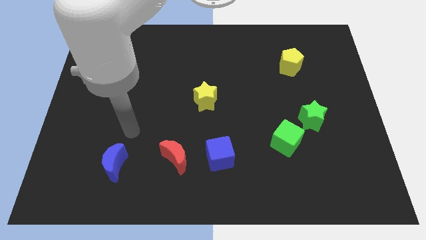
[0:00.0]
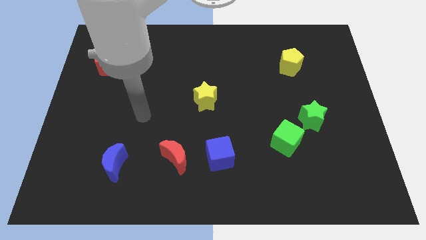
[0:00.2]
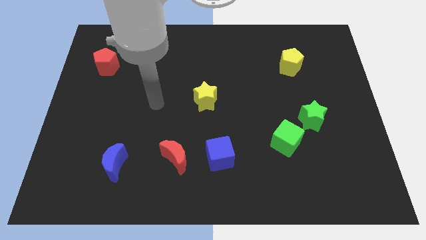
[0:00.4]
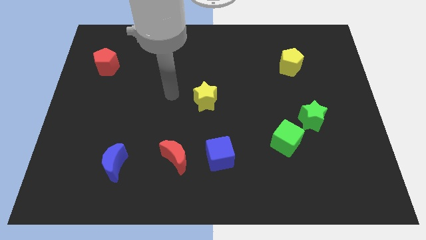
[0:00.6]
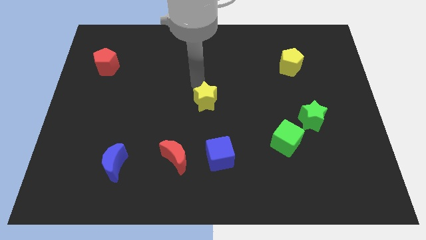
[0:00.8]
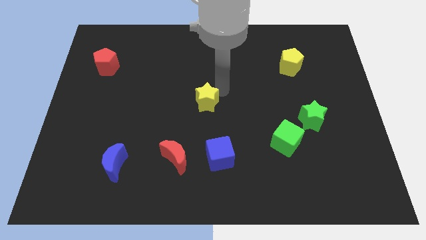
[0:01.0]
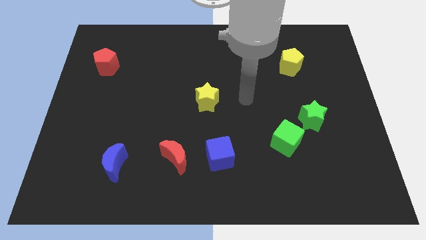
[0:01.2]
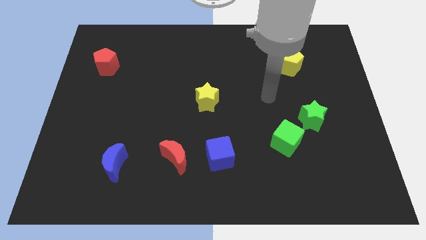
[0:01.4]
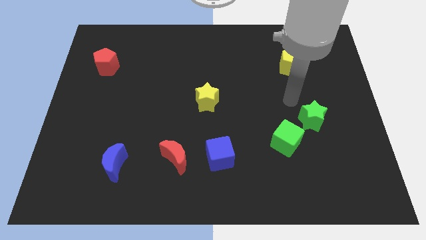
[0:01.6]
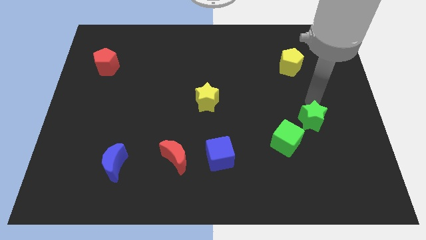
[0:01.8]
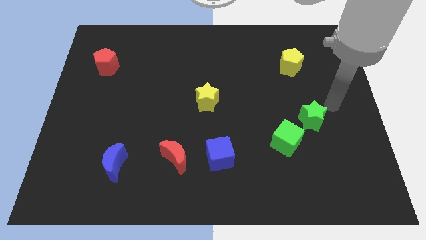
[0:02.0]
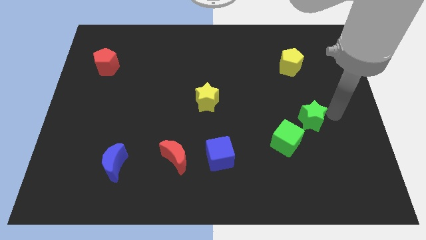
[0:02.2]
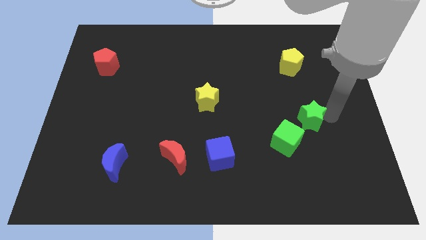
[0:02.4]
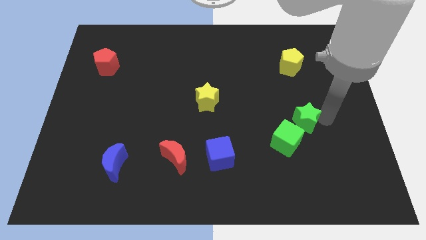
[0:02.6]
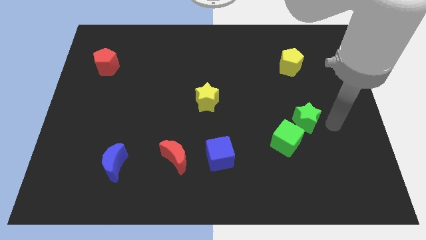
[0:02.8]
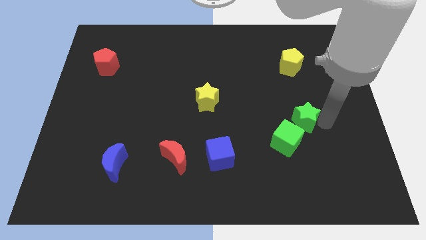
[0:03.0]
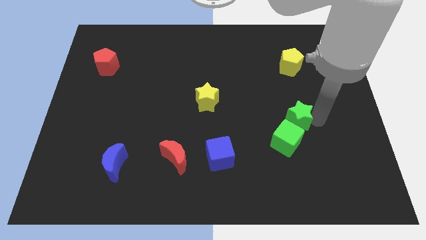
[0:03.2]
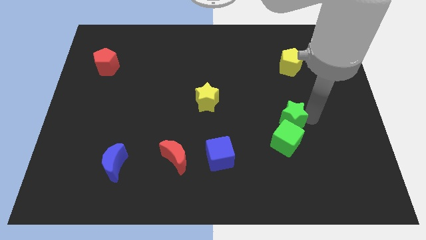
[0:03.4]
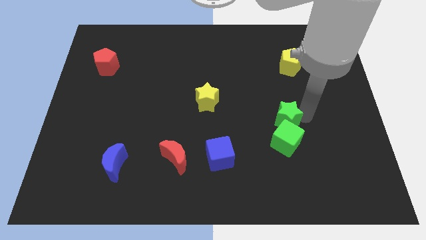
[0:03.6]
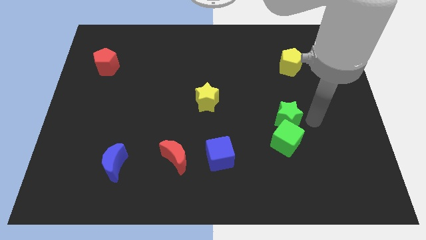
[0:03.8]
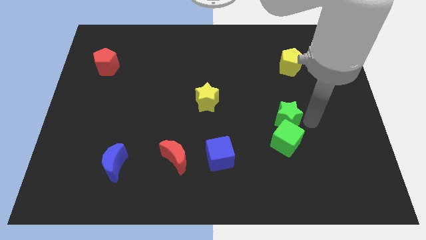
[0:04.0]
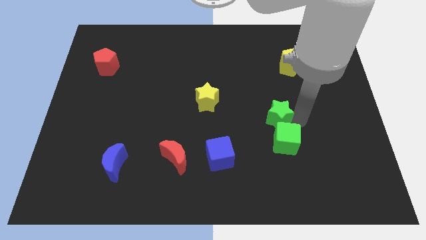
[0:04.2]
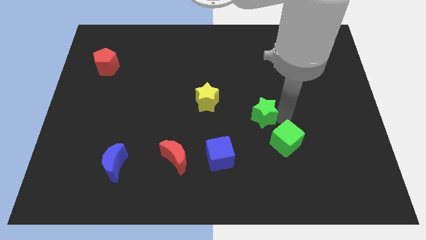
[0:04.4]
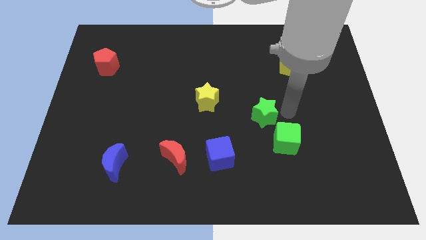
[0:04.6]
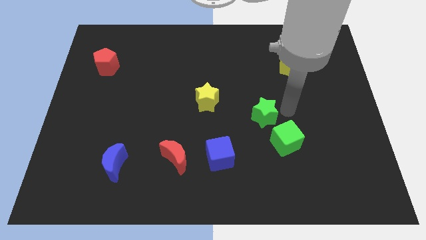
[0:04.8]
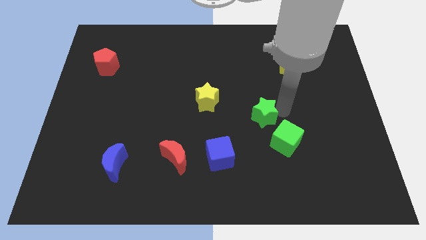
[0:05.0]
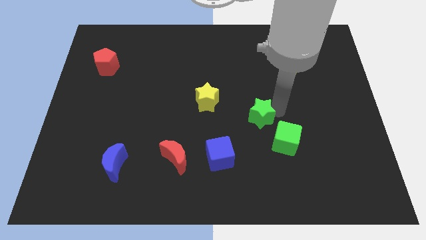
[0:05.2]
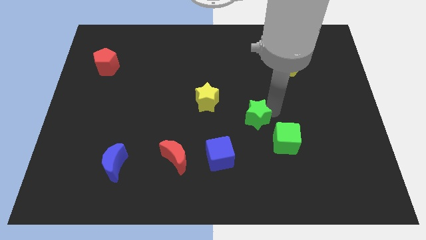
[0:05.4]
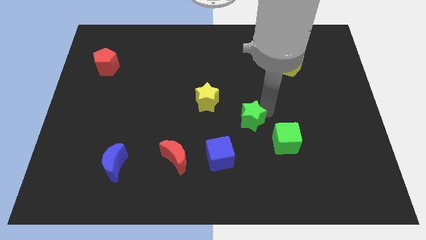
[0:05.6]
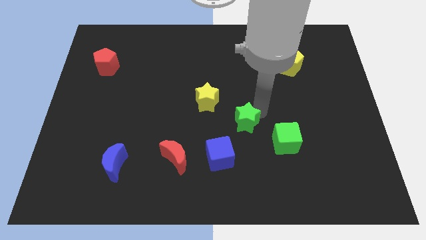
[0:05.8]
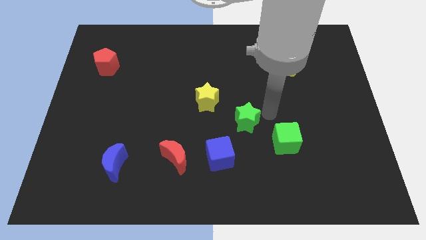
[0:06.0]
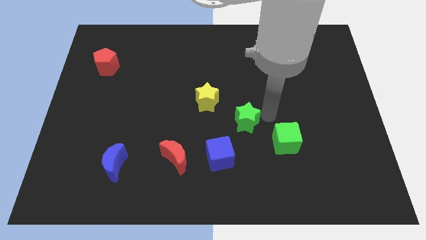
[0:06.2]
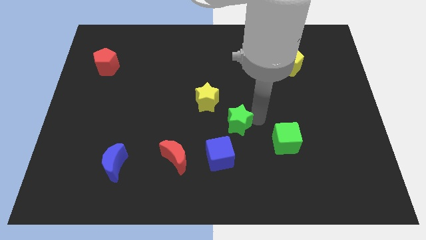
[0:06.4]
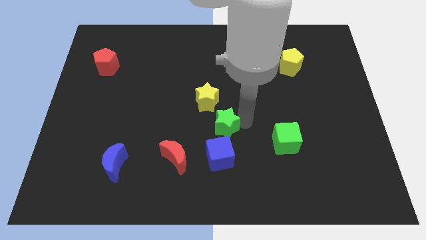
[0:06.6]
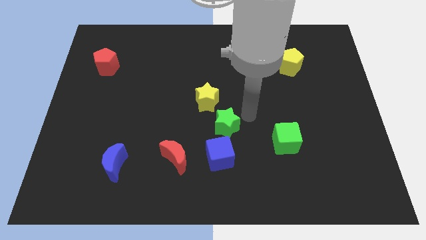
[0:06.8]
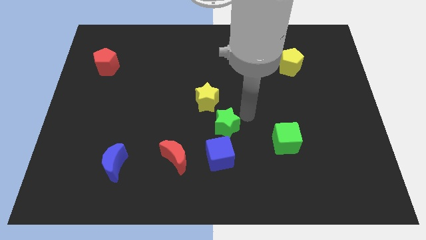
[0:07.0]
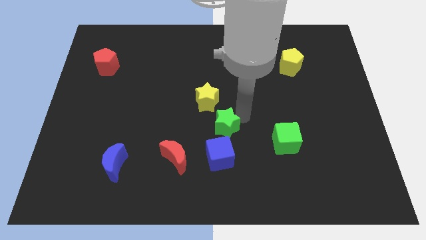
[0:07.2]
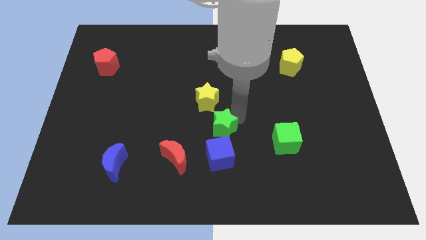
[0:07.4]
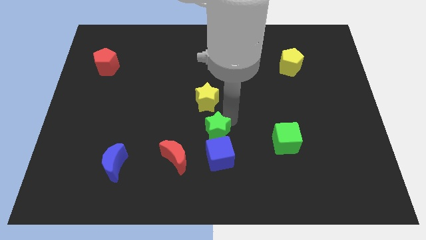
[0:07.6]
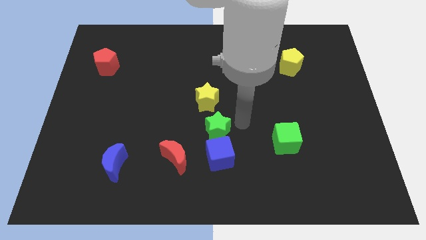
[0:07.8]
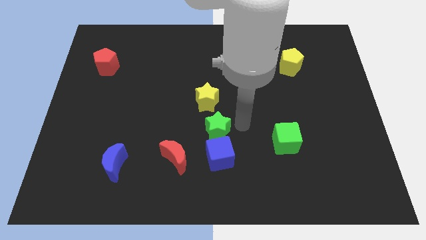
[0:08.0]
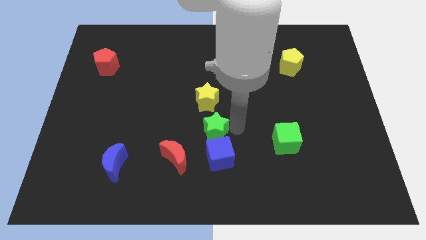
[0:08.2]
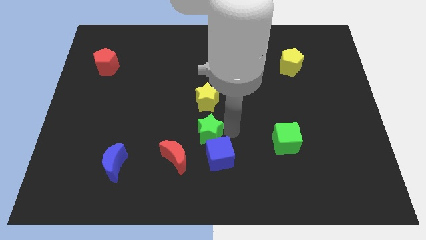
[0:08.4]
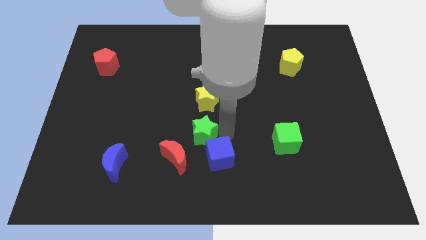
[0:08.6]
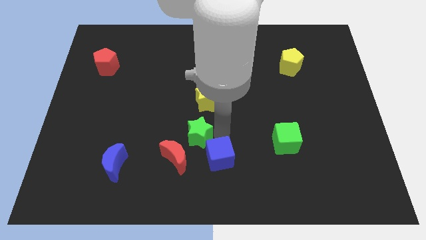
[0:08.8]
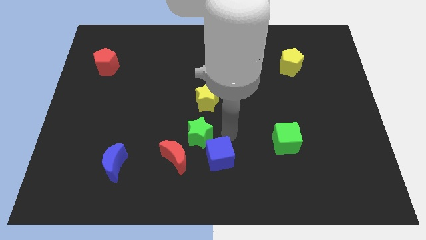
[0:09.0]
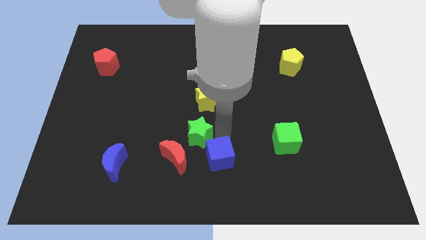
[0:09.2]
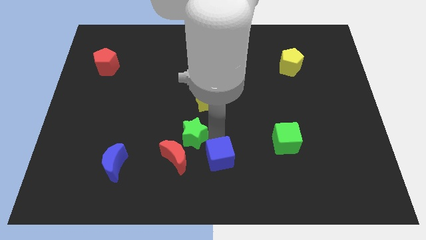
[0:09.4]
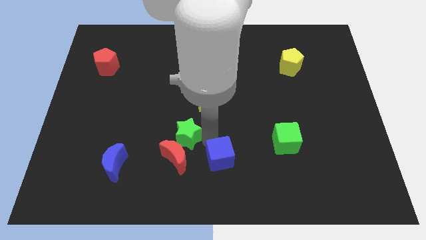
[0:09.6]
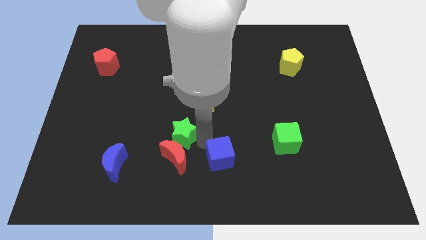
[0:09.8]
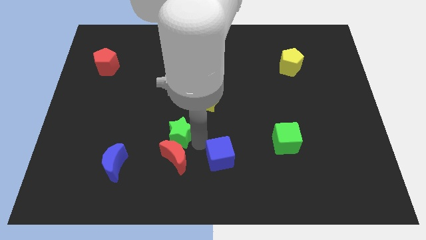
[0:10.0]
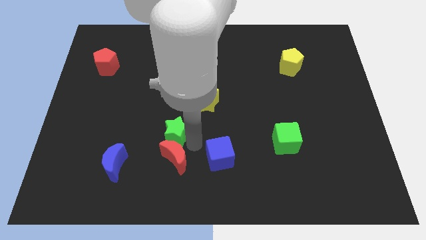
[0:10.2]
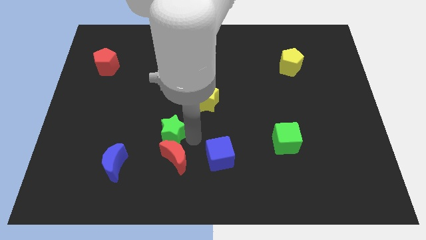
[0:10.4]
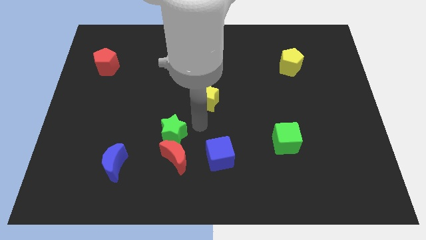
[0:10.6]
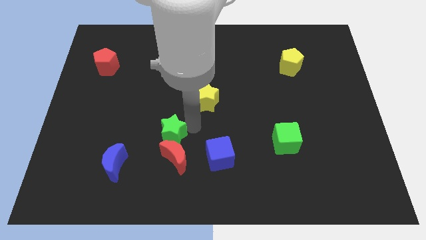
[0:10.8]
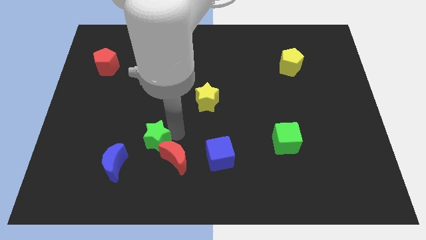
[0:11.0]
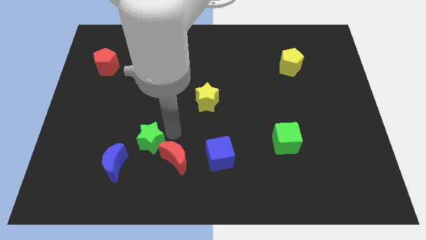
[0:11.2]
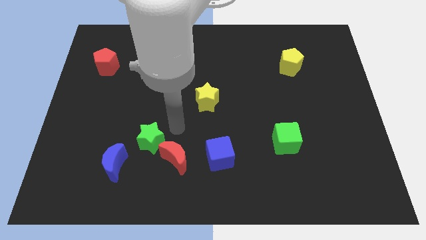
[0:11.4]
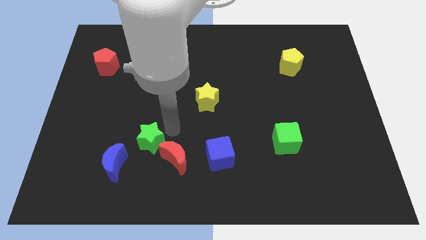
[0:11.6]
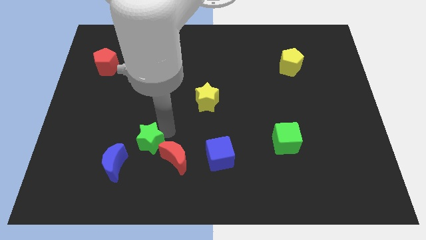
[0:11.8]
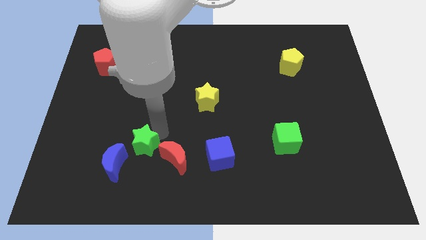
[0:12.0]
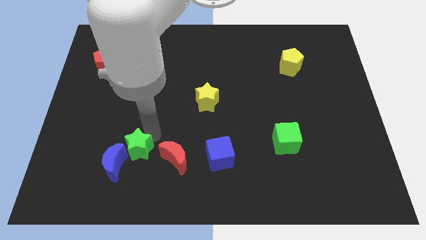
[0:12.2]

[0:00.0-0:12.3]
put the green star towards the blue moon
